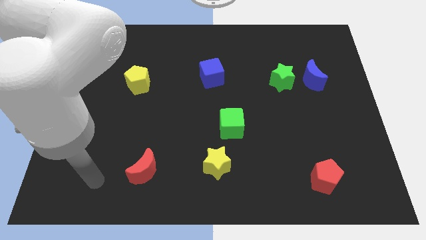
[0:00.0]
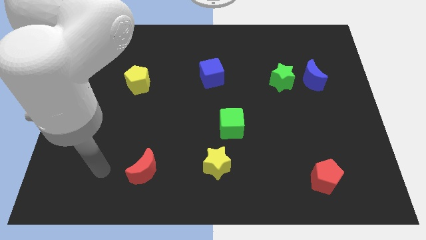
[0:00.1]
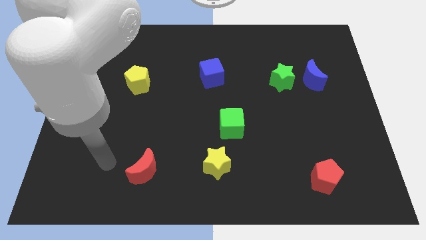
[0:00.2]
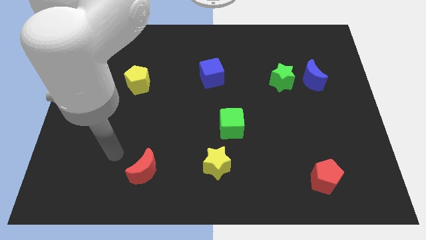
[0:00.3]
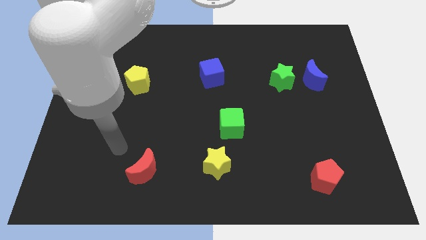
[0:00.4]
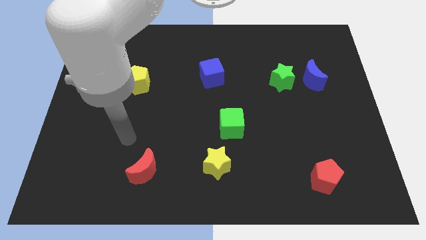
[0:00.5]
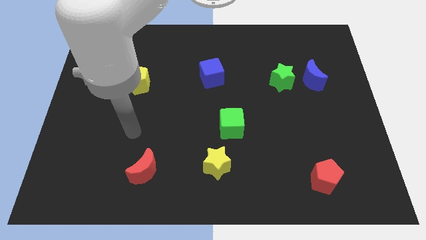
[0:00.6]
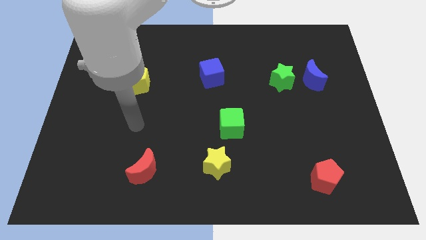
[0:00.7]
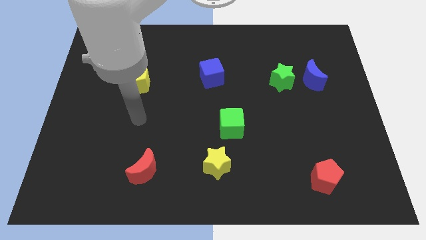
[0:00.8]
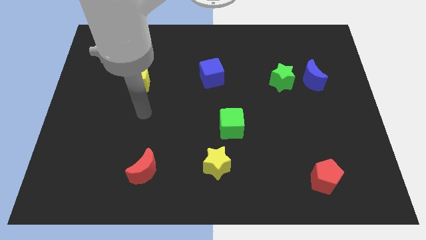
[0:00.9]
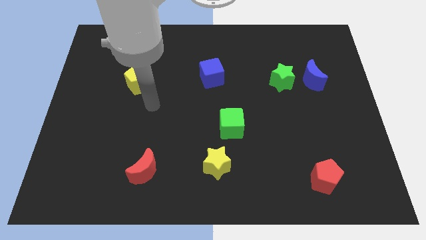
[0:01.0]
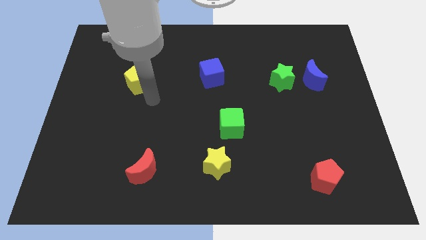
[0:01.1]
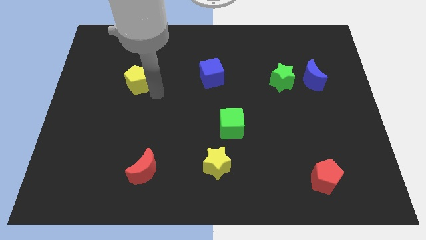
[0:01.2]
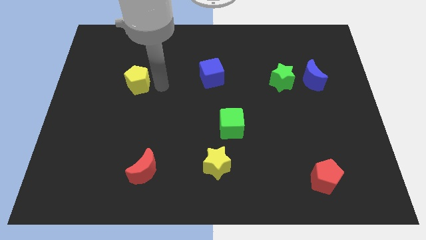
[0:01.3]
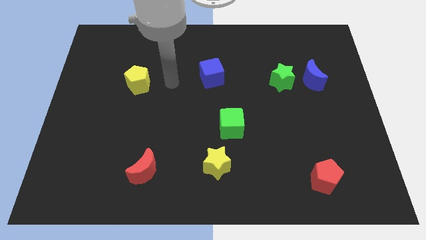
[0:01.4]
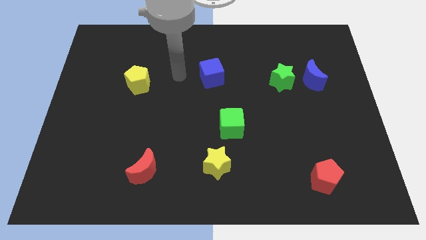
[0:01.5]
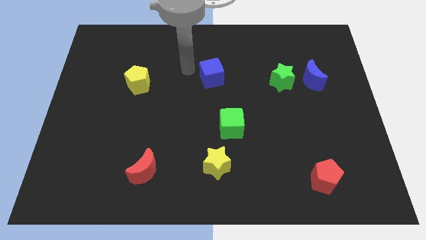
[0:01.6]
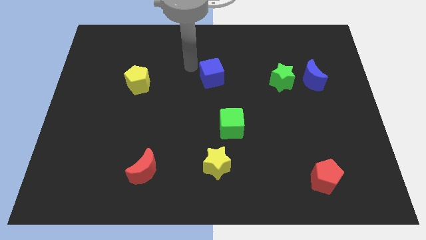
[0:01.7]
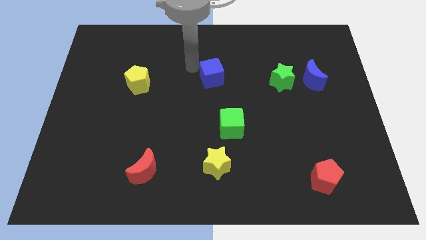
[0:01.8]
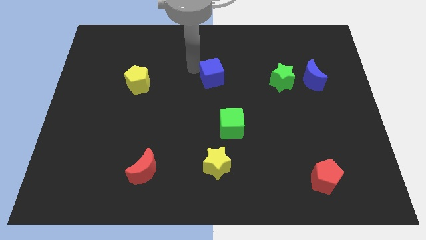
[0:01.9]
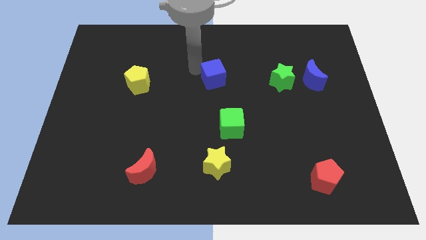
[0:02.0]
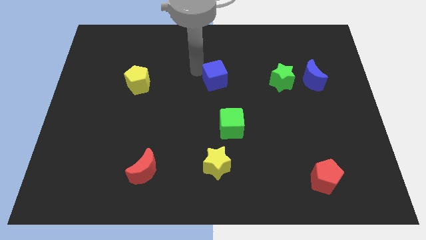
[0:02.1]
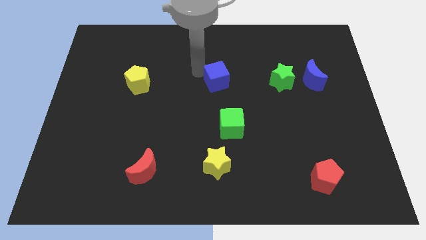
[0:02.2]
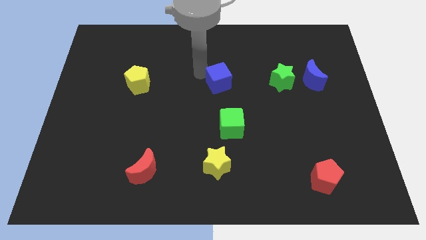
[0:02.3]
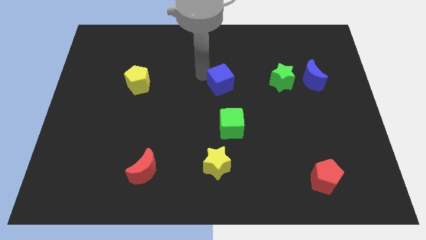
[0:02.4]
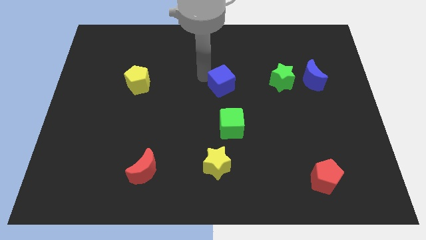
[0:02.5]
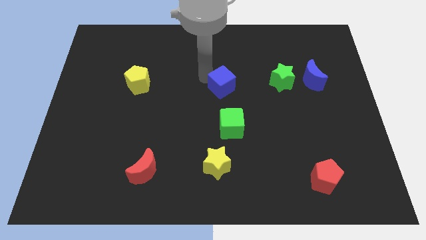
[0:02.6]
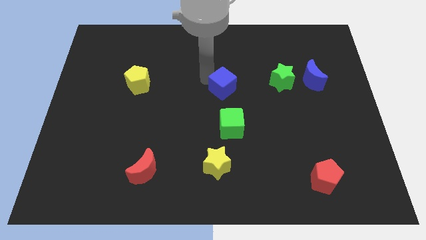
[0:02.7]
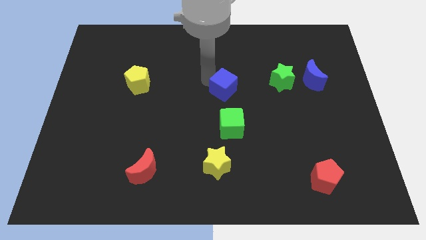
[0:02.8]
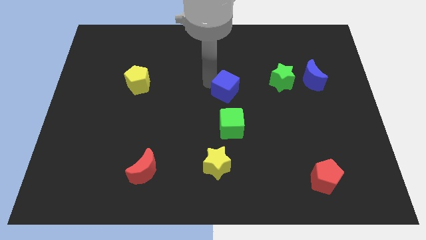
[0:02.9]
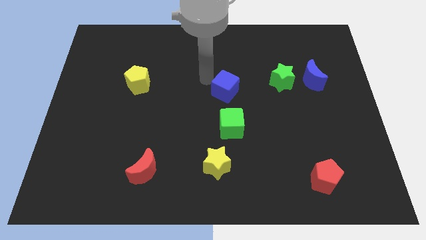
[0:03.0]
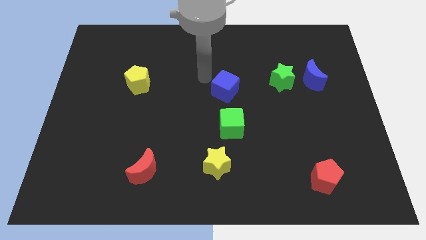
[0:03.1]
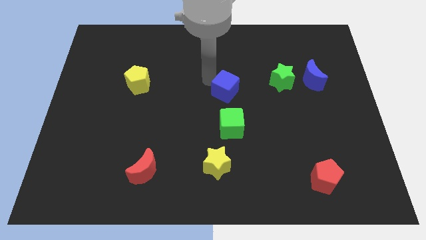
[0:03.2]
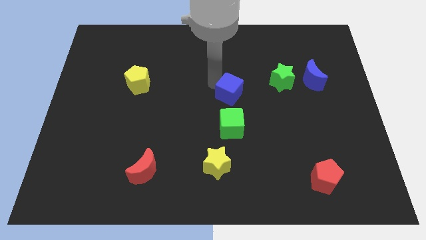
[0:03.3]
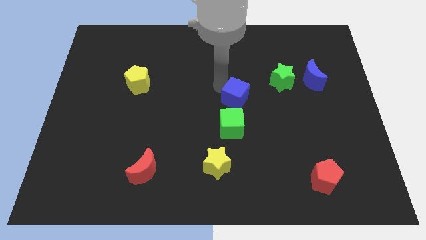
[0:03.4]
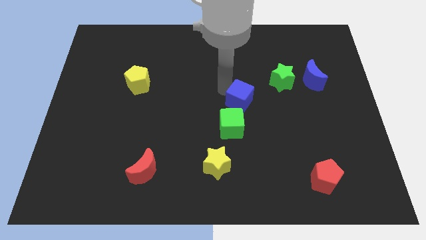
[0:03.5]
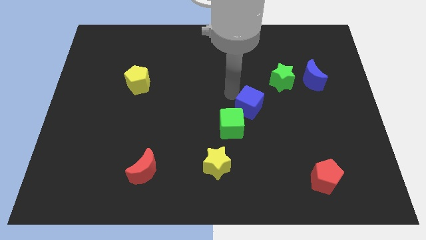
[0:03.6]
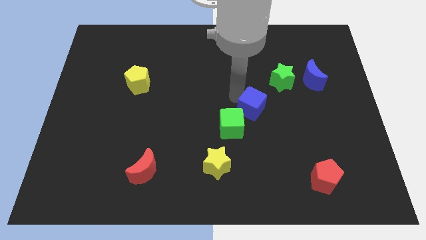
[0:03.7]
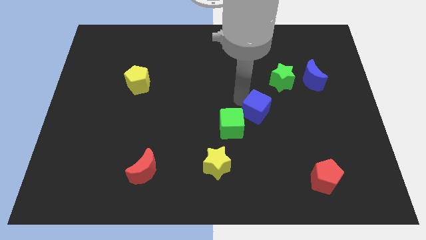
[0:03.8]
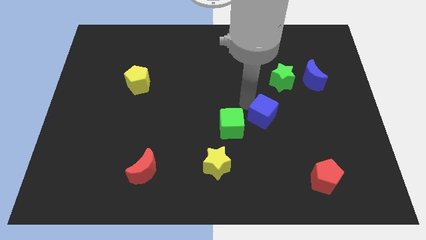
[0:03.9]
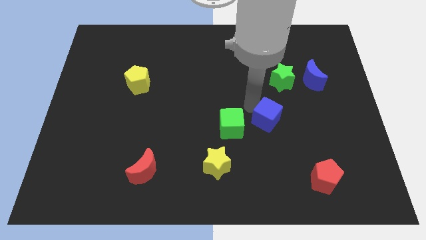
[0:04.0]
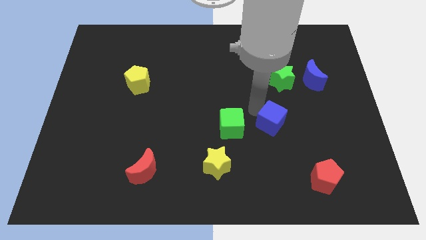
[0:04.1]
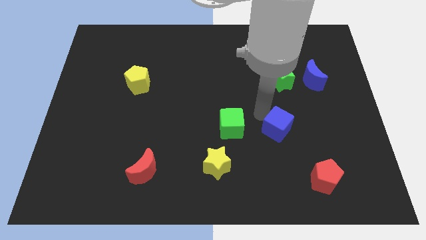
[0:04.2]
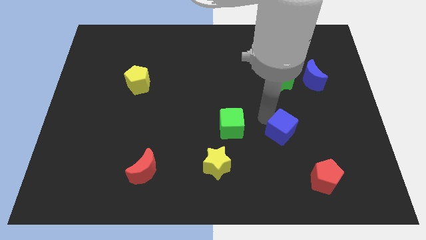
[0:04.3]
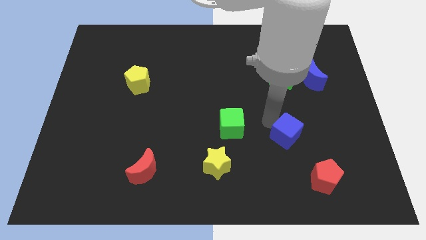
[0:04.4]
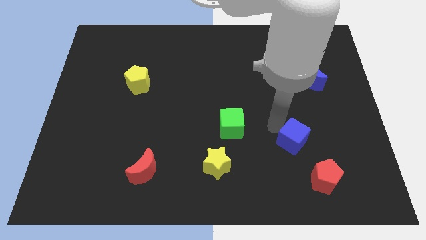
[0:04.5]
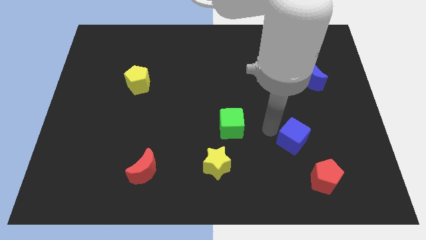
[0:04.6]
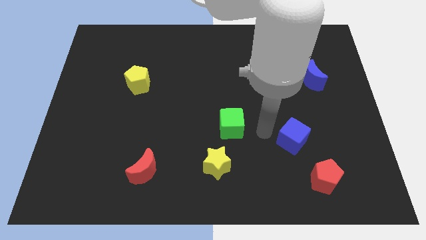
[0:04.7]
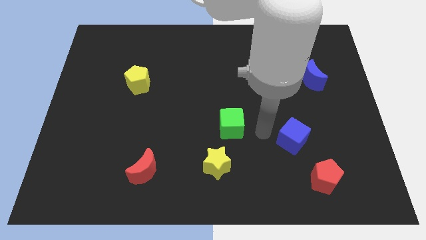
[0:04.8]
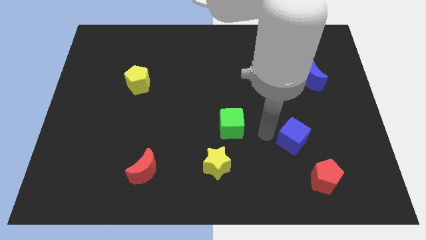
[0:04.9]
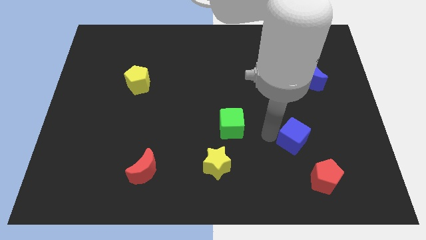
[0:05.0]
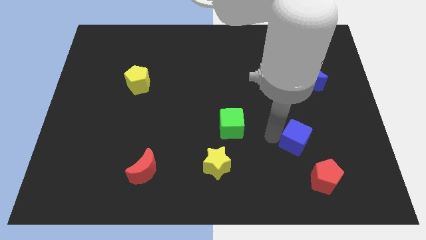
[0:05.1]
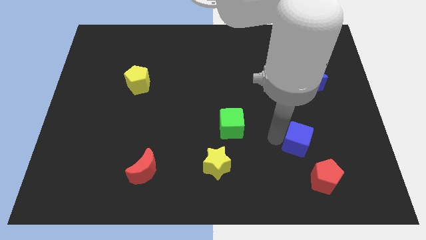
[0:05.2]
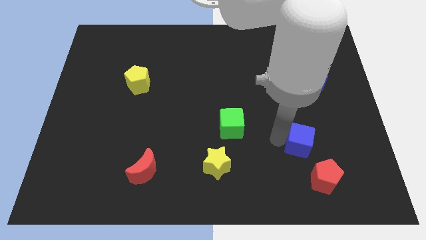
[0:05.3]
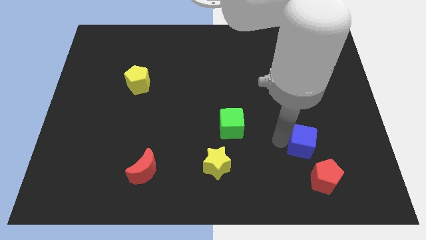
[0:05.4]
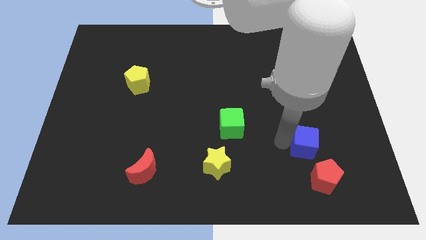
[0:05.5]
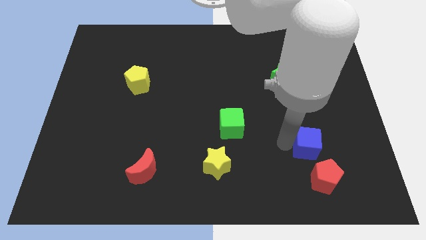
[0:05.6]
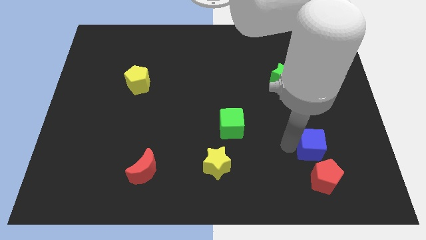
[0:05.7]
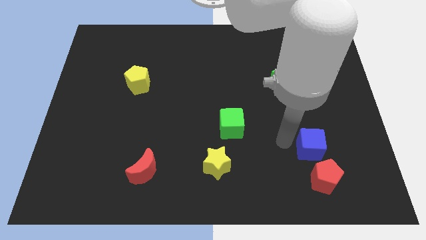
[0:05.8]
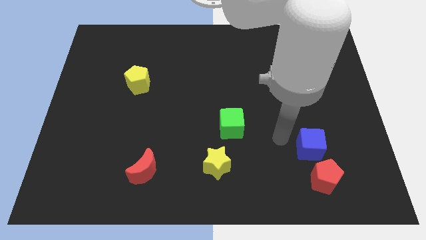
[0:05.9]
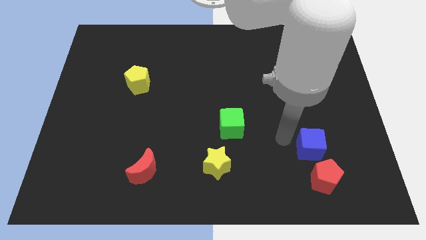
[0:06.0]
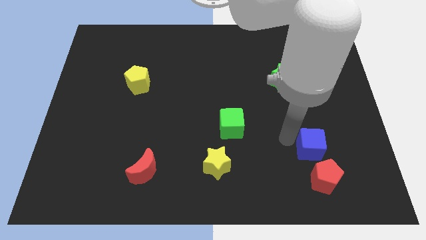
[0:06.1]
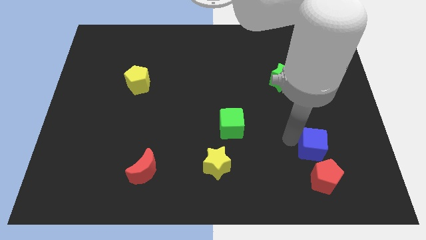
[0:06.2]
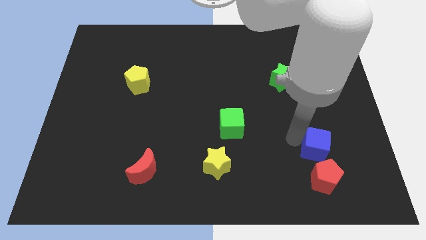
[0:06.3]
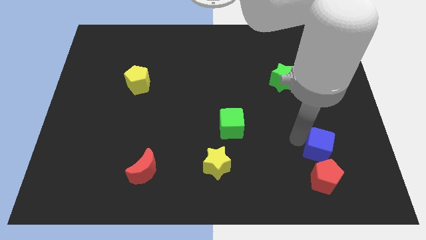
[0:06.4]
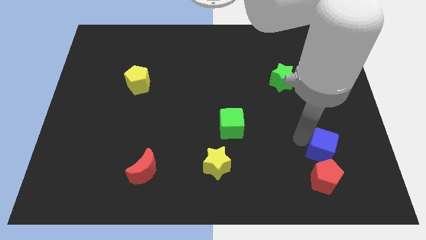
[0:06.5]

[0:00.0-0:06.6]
push the blue cube to the top right of the red pentagon
